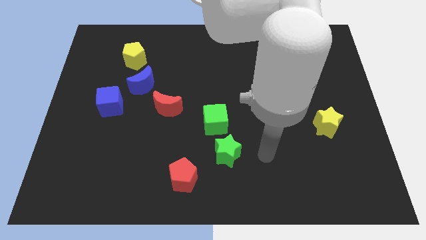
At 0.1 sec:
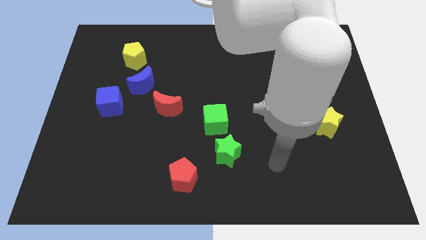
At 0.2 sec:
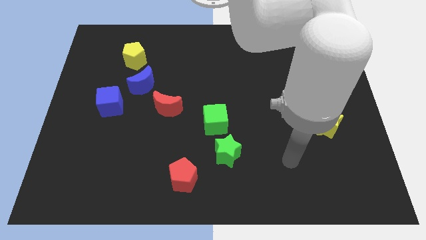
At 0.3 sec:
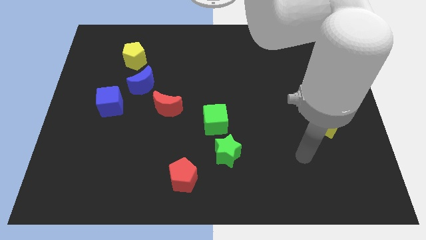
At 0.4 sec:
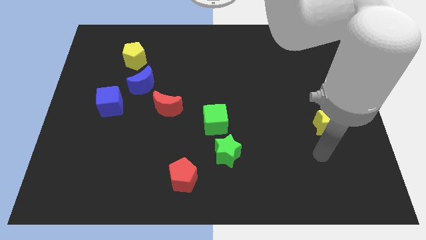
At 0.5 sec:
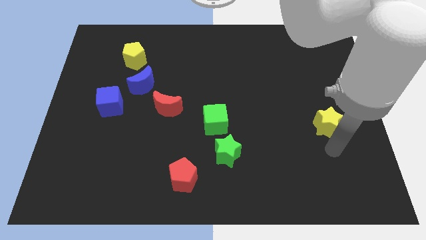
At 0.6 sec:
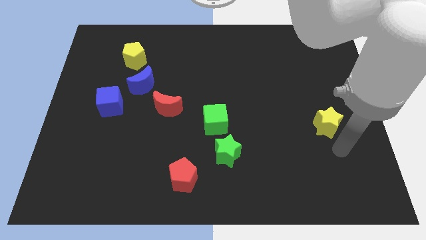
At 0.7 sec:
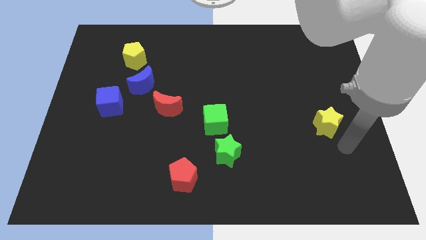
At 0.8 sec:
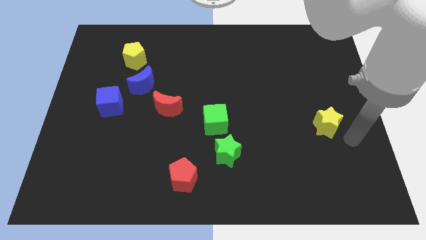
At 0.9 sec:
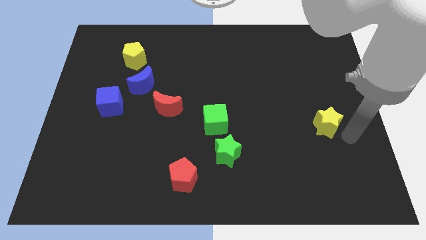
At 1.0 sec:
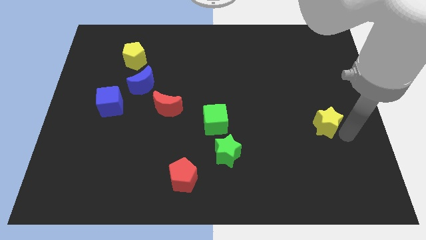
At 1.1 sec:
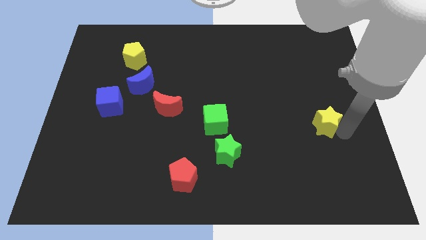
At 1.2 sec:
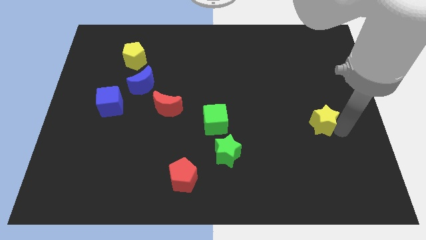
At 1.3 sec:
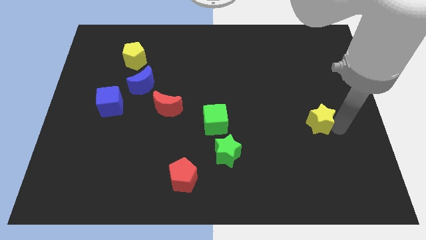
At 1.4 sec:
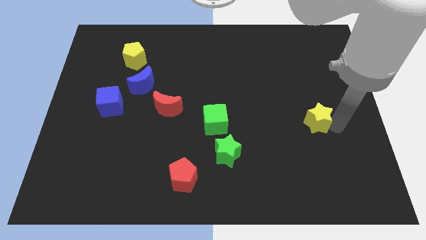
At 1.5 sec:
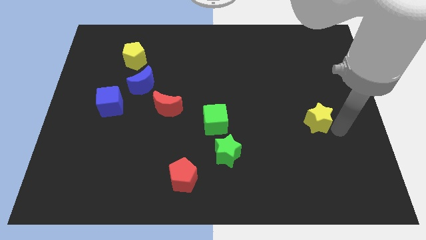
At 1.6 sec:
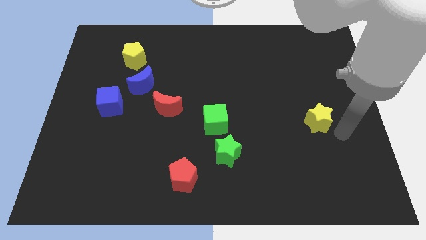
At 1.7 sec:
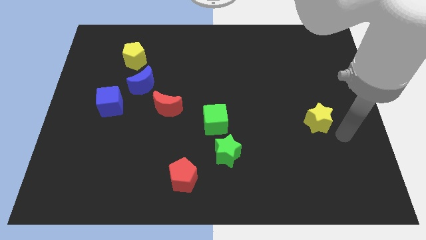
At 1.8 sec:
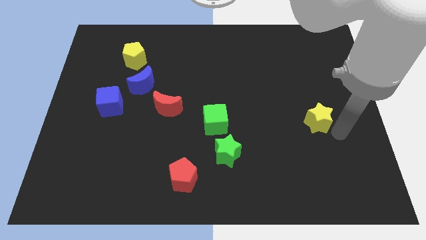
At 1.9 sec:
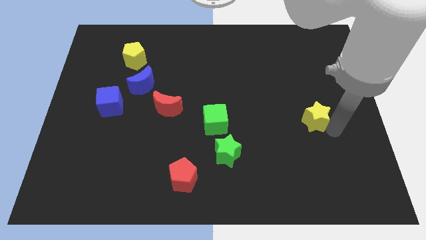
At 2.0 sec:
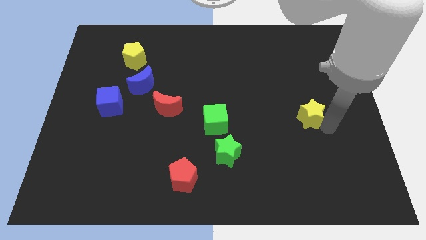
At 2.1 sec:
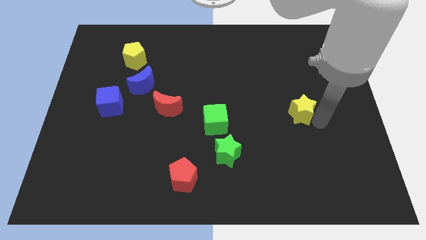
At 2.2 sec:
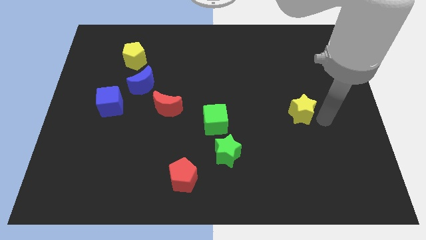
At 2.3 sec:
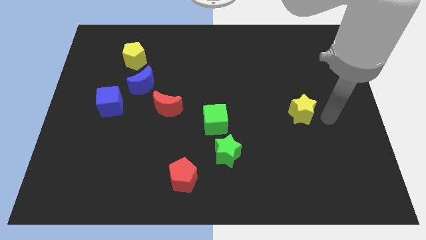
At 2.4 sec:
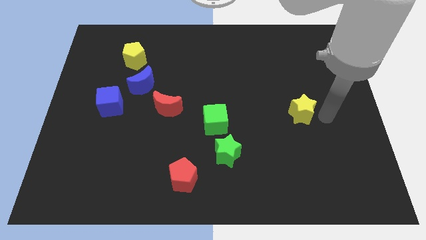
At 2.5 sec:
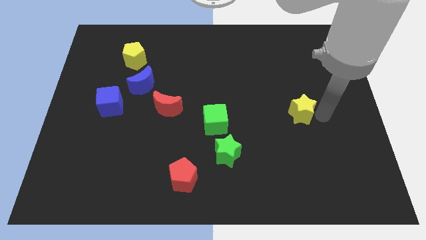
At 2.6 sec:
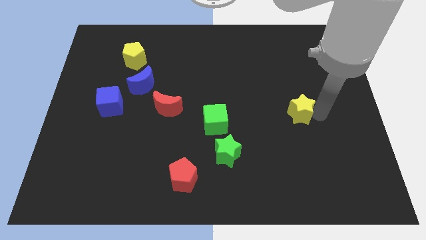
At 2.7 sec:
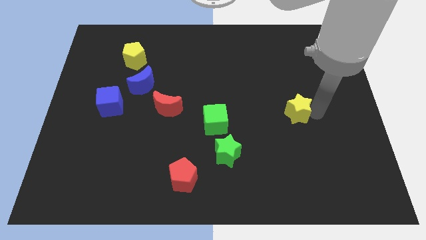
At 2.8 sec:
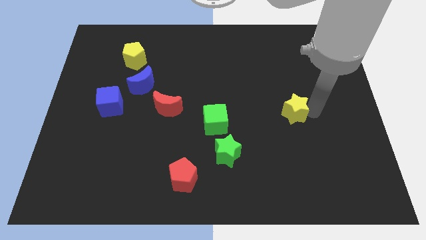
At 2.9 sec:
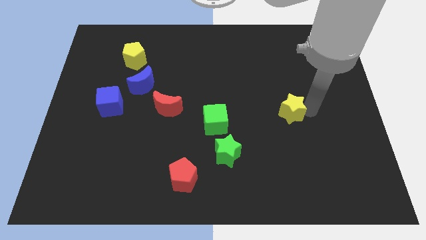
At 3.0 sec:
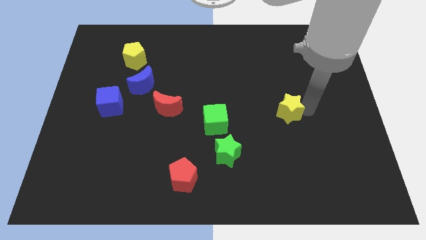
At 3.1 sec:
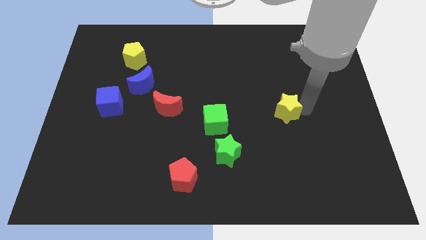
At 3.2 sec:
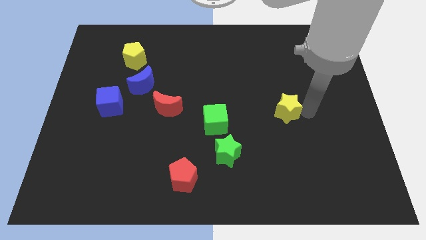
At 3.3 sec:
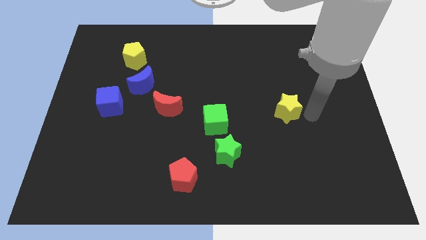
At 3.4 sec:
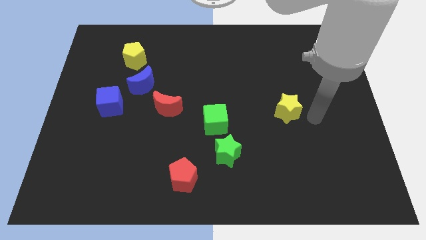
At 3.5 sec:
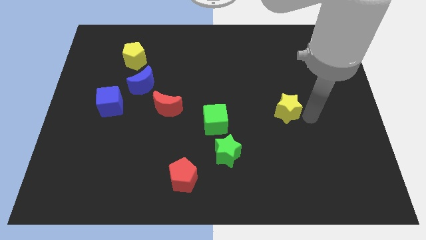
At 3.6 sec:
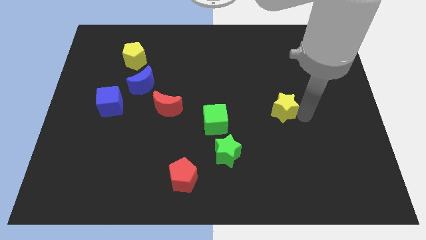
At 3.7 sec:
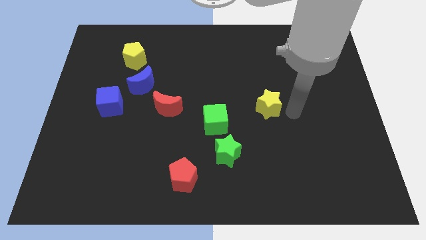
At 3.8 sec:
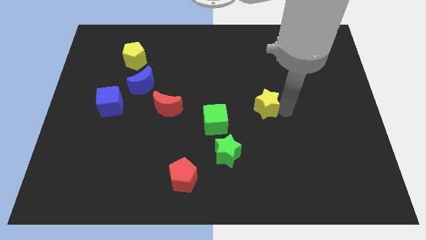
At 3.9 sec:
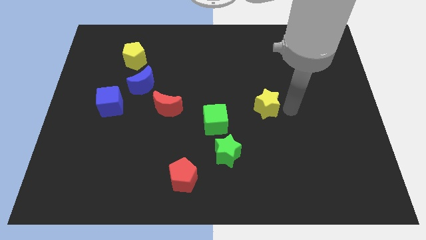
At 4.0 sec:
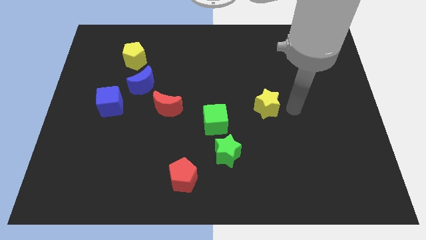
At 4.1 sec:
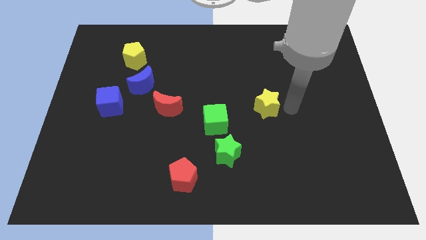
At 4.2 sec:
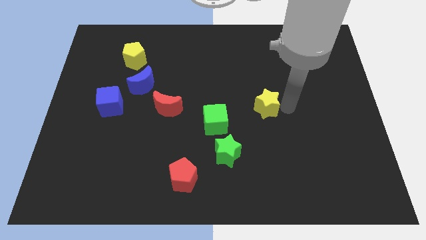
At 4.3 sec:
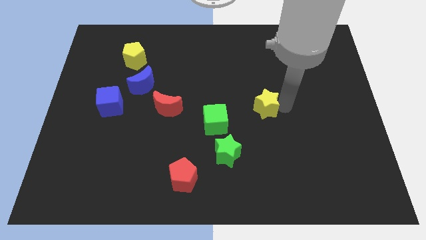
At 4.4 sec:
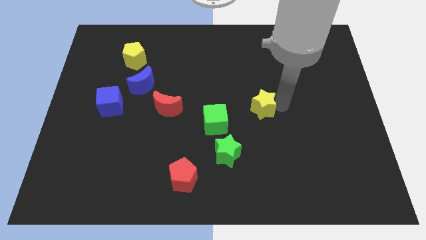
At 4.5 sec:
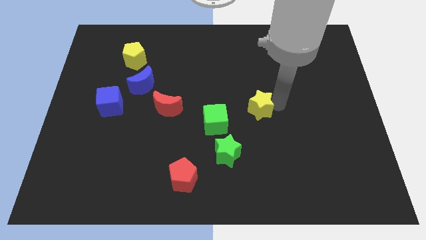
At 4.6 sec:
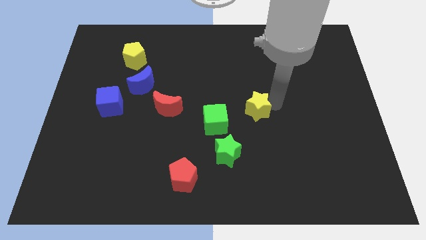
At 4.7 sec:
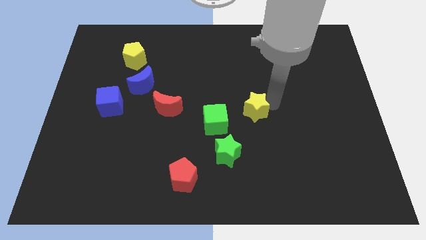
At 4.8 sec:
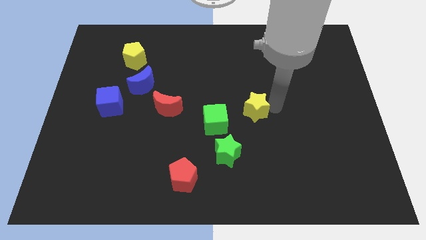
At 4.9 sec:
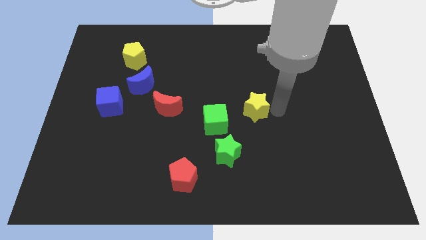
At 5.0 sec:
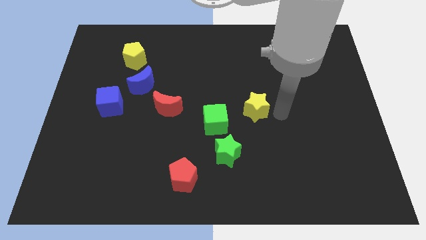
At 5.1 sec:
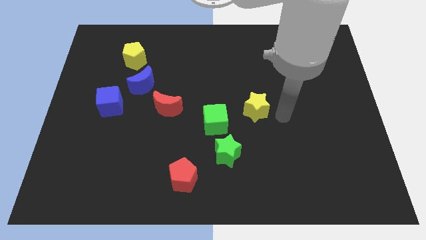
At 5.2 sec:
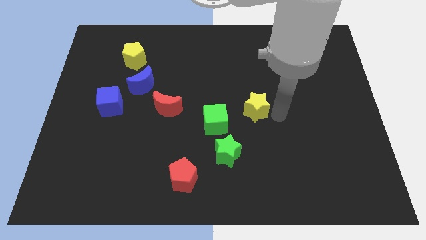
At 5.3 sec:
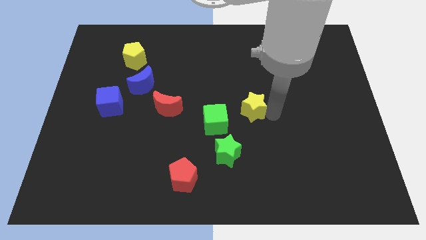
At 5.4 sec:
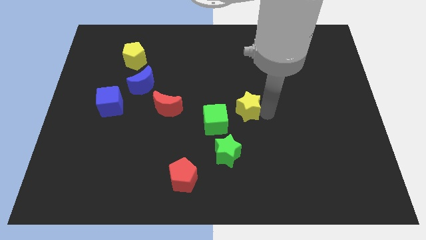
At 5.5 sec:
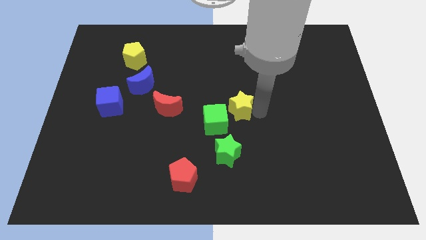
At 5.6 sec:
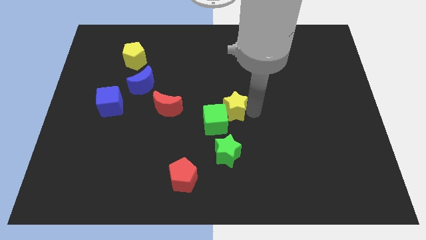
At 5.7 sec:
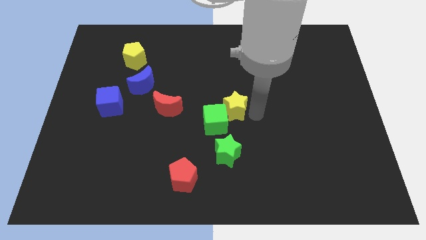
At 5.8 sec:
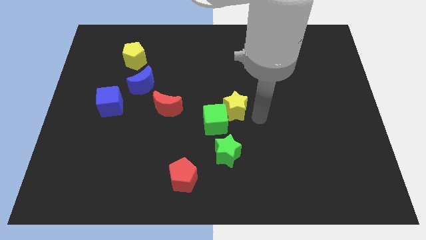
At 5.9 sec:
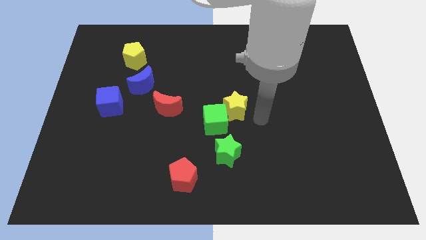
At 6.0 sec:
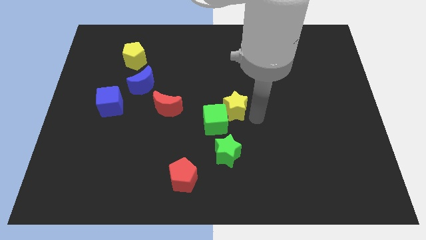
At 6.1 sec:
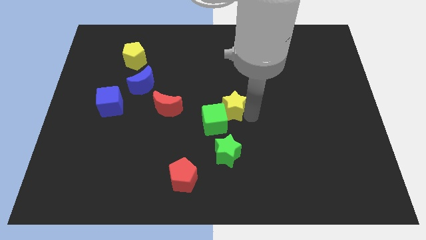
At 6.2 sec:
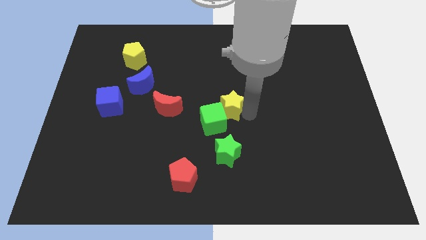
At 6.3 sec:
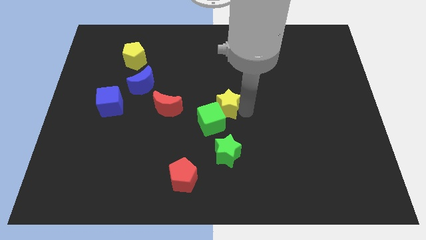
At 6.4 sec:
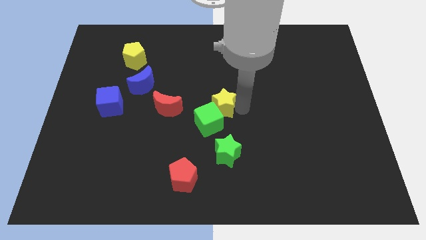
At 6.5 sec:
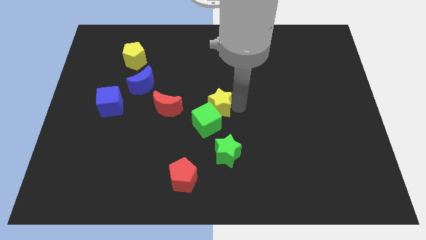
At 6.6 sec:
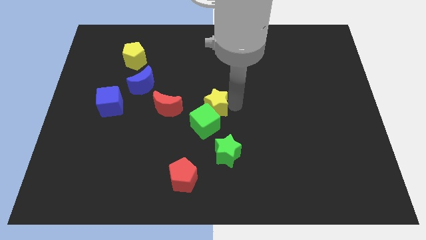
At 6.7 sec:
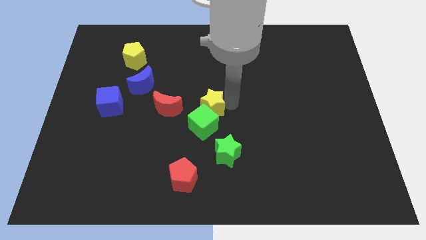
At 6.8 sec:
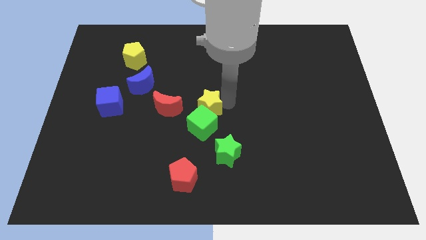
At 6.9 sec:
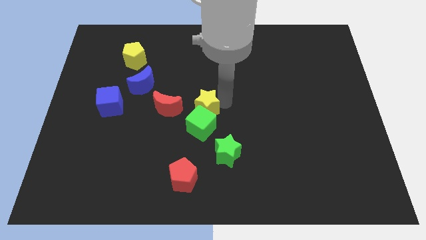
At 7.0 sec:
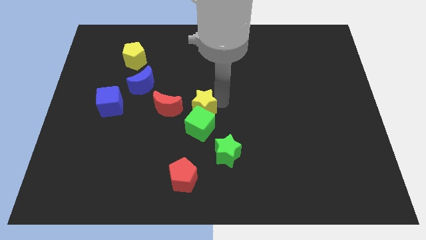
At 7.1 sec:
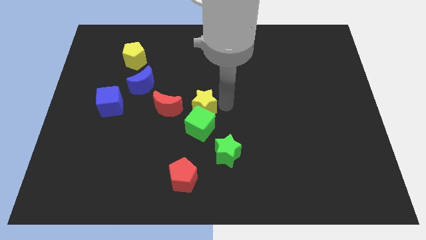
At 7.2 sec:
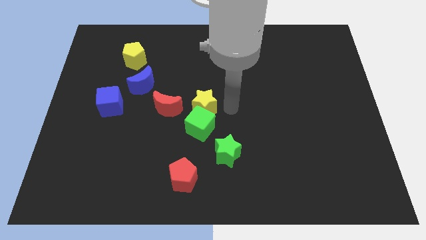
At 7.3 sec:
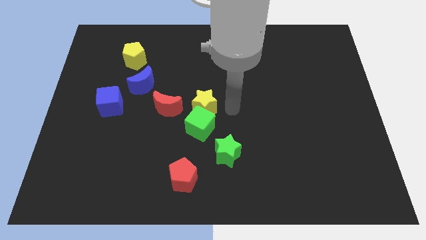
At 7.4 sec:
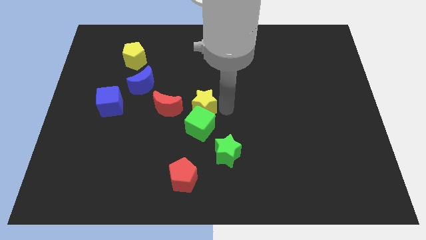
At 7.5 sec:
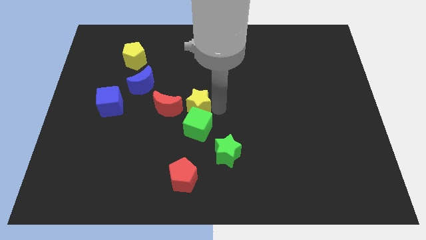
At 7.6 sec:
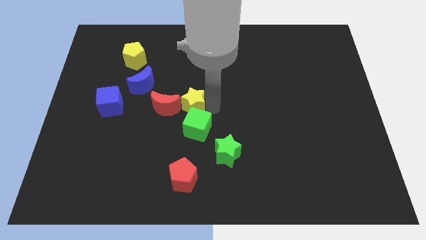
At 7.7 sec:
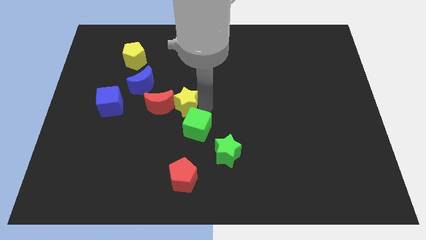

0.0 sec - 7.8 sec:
slide the yellow star next to the red moon
